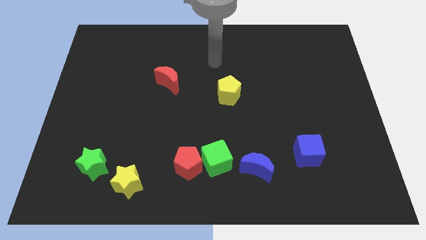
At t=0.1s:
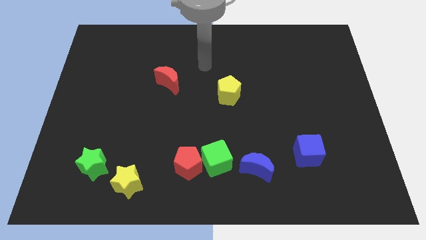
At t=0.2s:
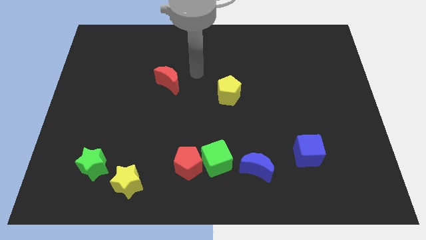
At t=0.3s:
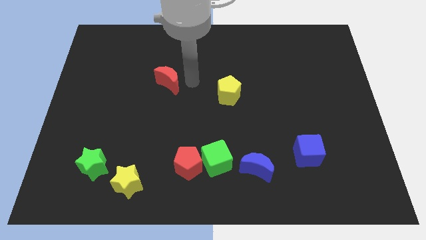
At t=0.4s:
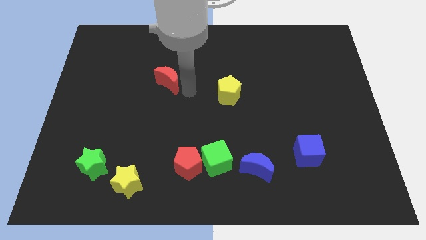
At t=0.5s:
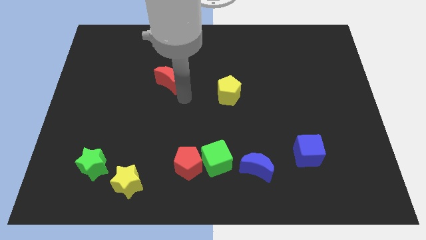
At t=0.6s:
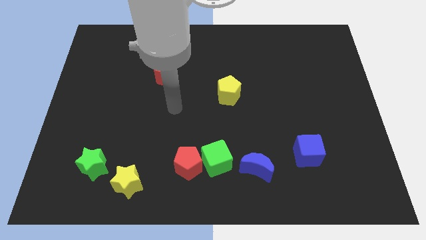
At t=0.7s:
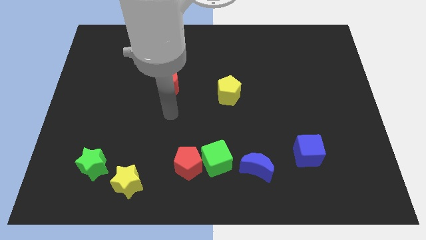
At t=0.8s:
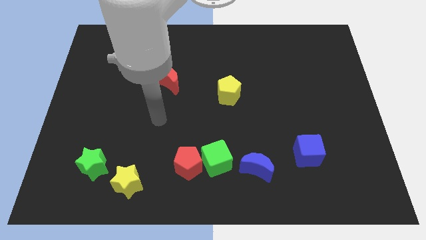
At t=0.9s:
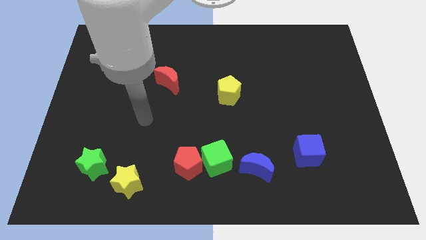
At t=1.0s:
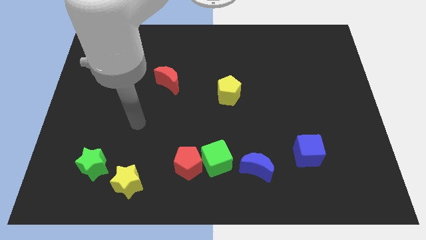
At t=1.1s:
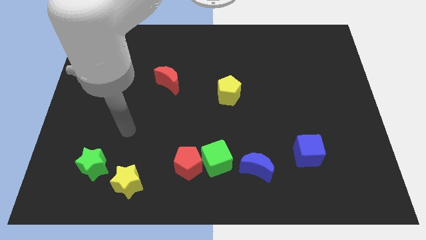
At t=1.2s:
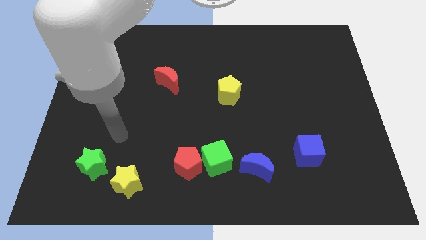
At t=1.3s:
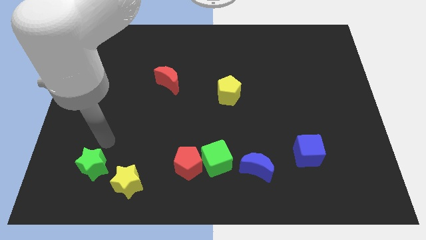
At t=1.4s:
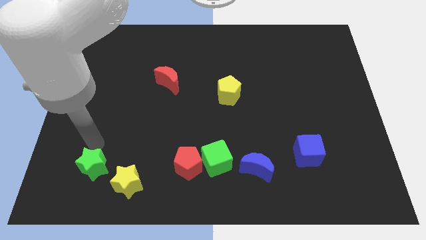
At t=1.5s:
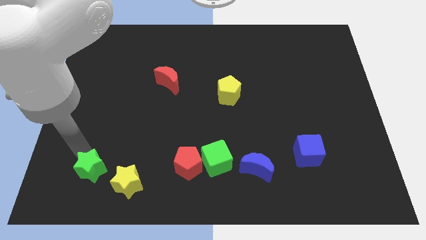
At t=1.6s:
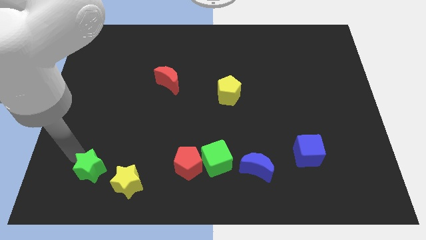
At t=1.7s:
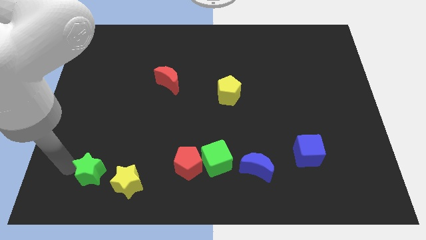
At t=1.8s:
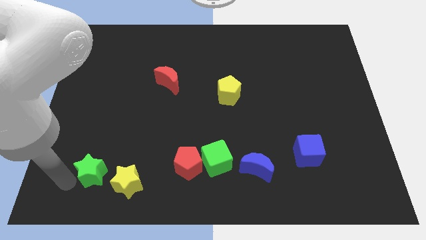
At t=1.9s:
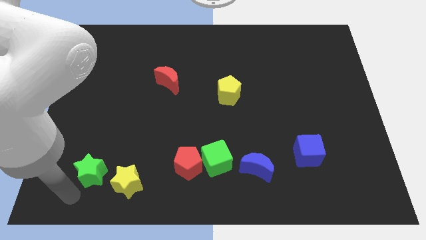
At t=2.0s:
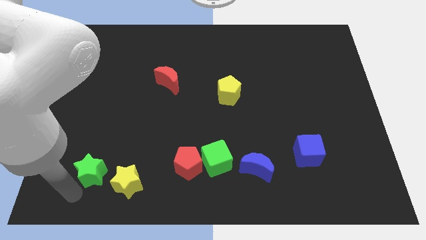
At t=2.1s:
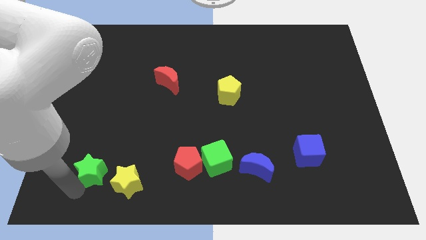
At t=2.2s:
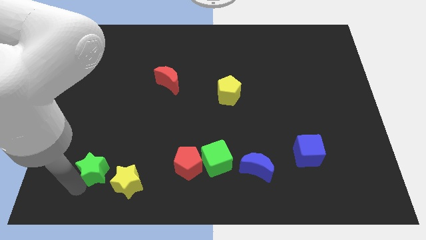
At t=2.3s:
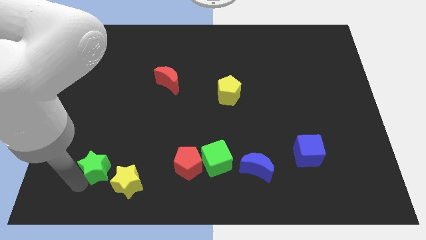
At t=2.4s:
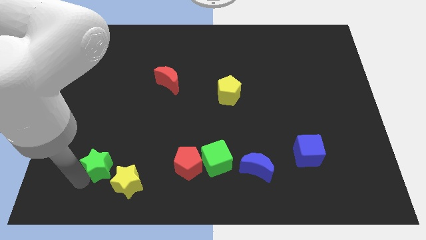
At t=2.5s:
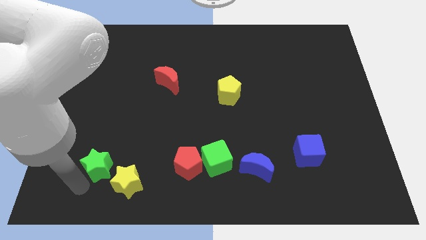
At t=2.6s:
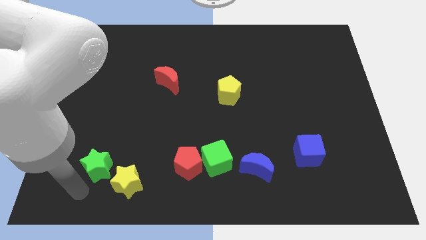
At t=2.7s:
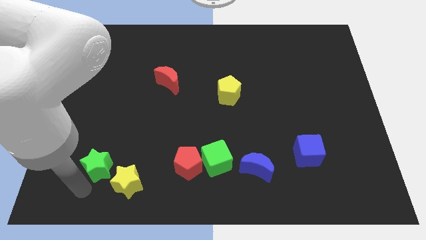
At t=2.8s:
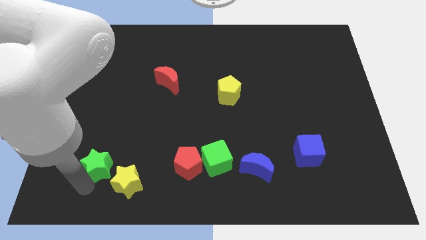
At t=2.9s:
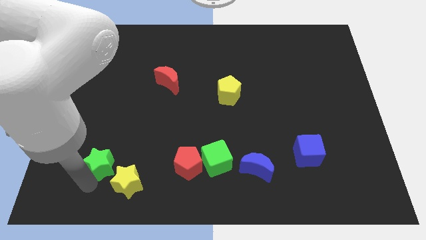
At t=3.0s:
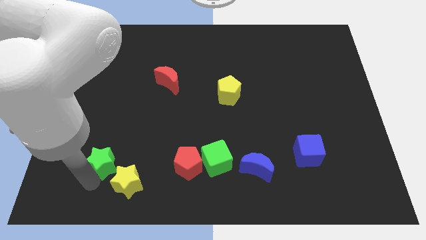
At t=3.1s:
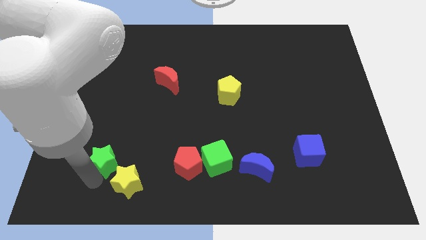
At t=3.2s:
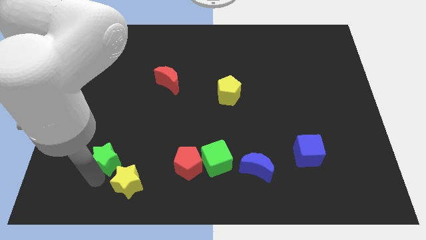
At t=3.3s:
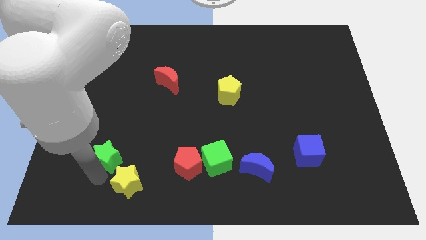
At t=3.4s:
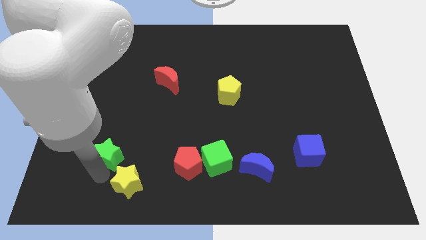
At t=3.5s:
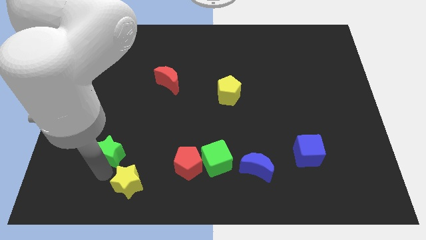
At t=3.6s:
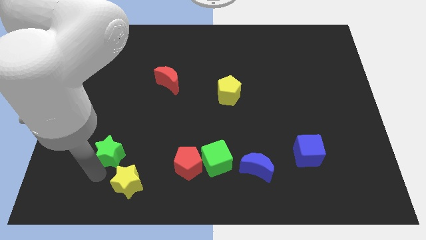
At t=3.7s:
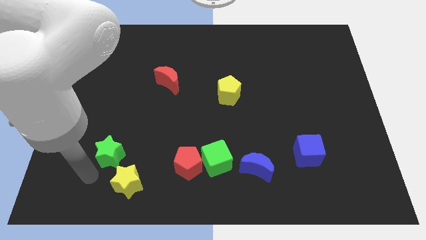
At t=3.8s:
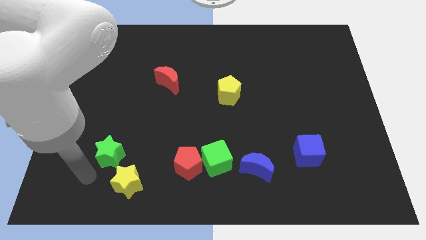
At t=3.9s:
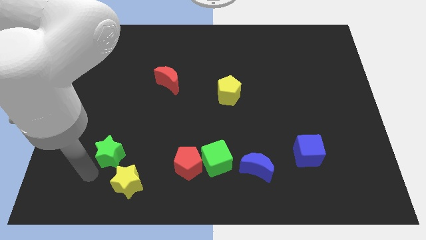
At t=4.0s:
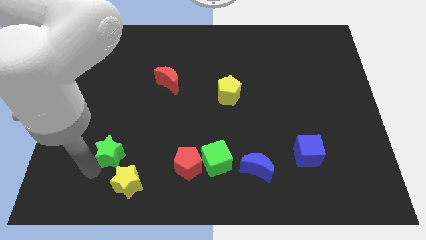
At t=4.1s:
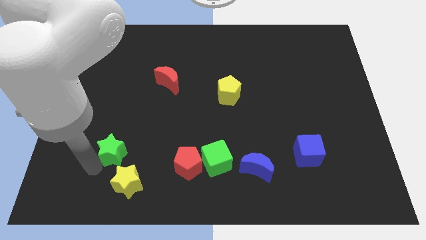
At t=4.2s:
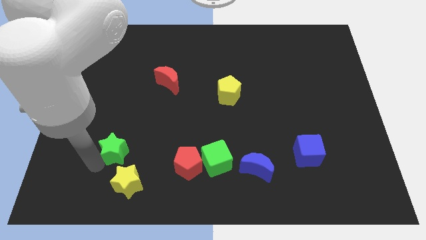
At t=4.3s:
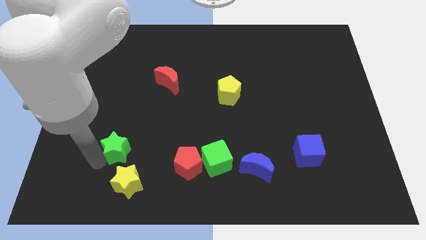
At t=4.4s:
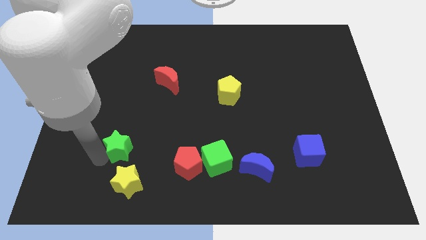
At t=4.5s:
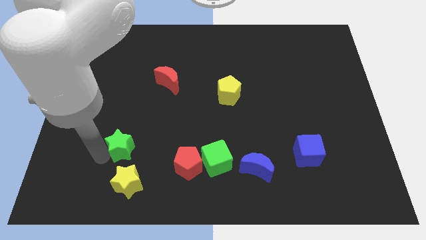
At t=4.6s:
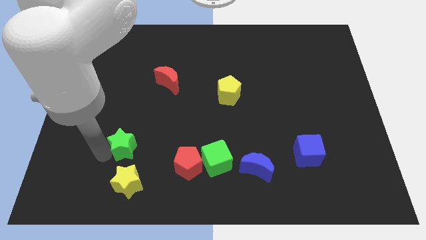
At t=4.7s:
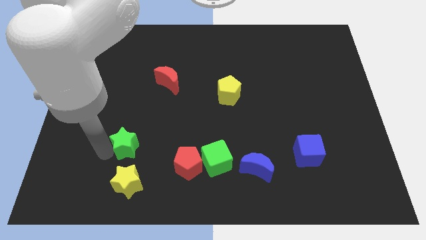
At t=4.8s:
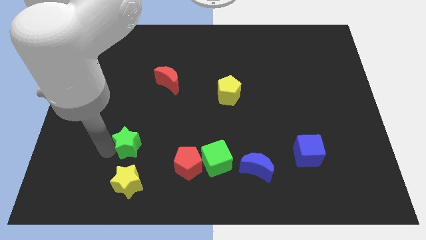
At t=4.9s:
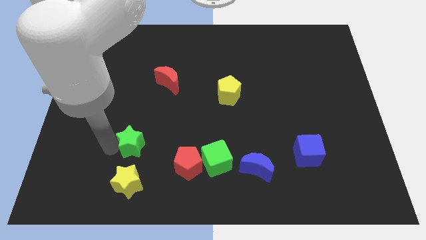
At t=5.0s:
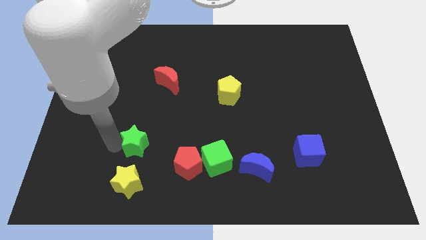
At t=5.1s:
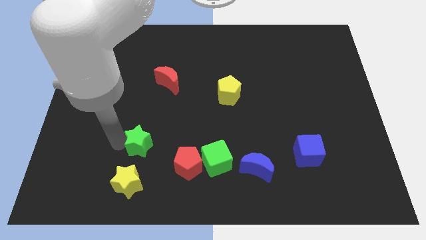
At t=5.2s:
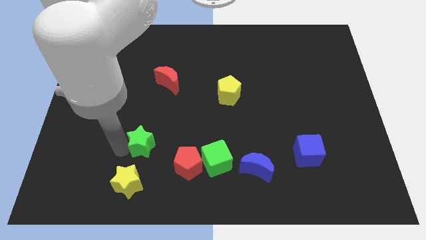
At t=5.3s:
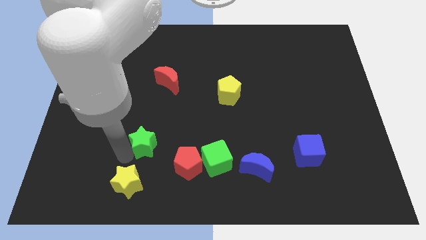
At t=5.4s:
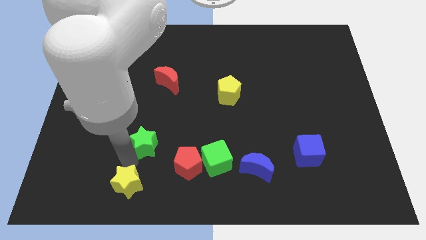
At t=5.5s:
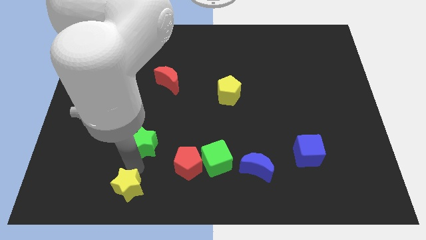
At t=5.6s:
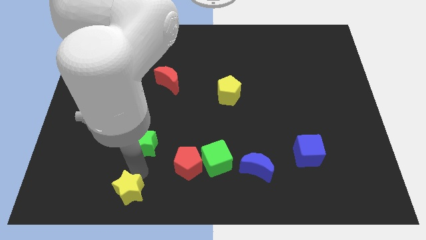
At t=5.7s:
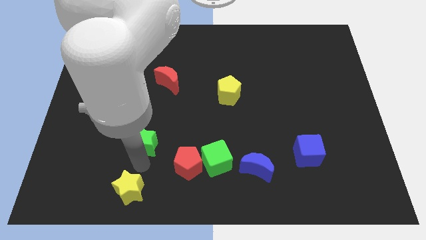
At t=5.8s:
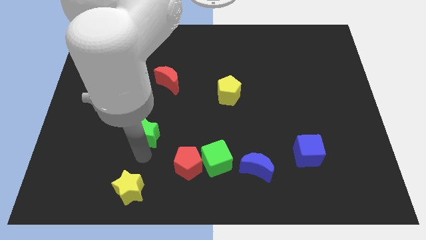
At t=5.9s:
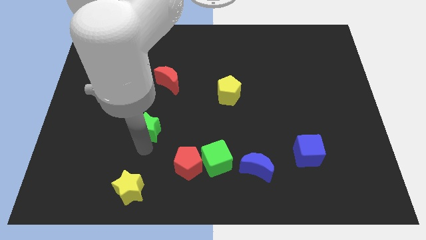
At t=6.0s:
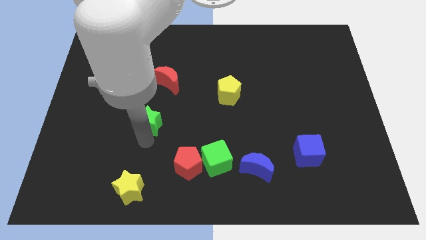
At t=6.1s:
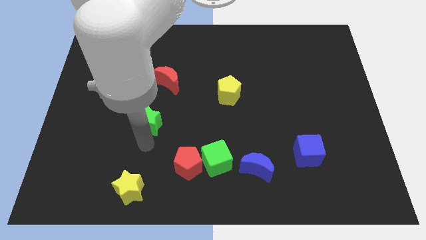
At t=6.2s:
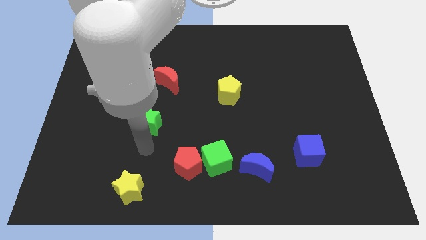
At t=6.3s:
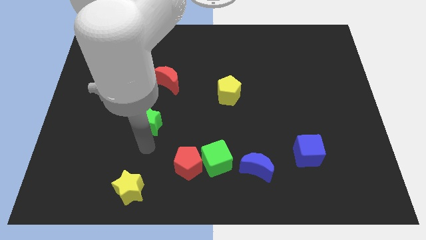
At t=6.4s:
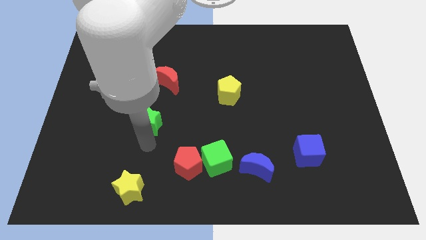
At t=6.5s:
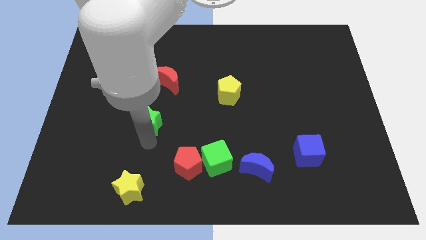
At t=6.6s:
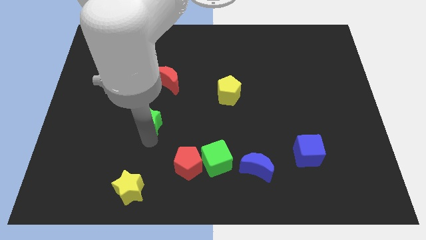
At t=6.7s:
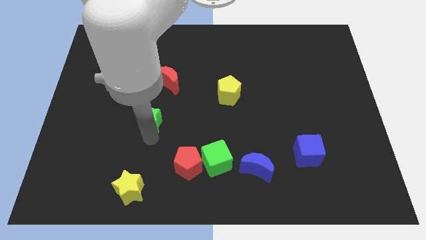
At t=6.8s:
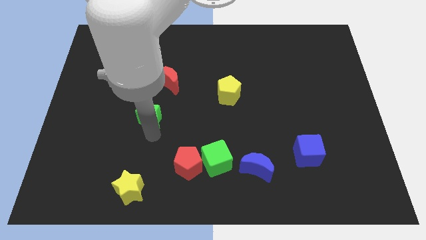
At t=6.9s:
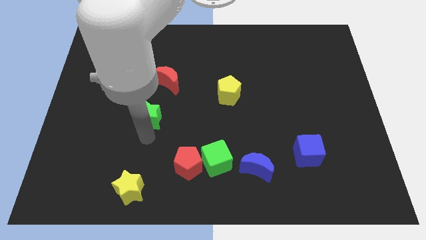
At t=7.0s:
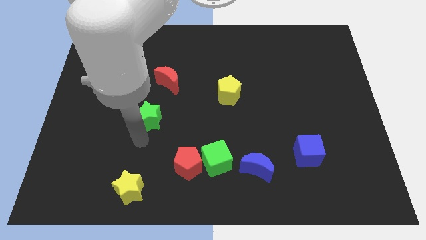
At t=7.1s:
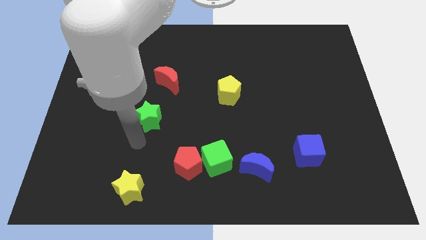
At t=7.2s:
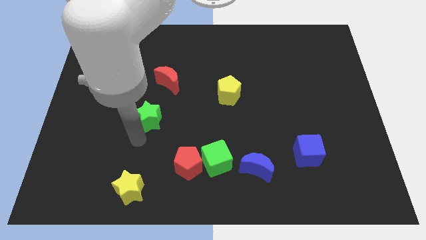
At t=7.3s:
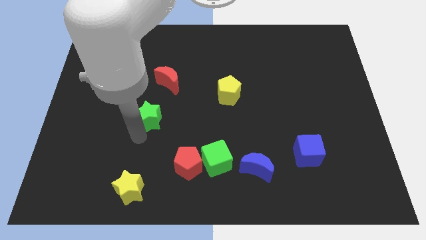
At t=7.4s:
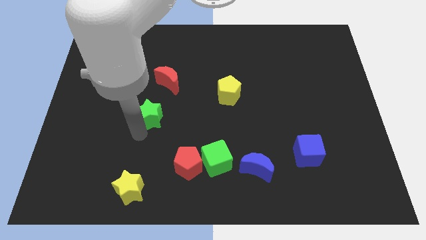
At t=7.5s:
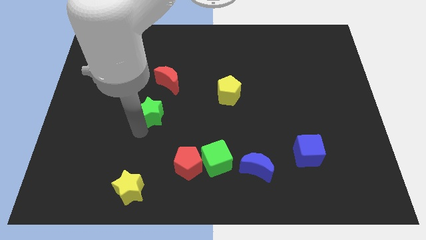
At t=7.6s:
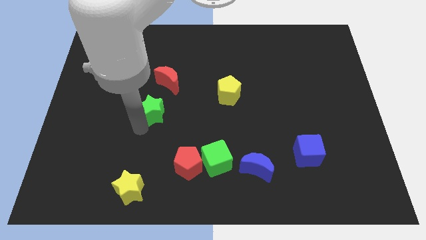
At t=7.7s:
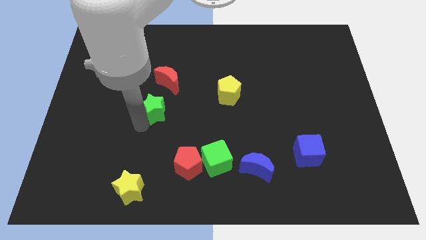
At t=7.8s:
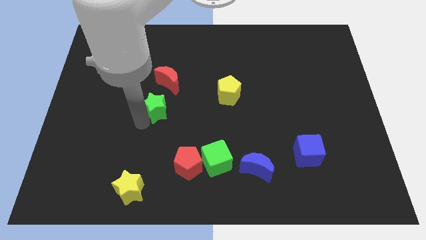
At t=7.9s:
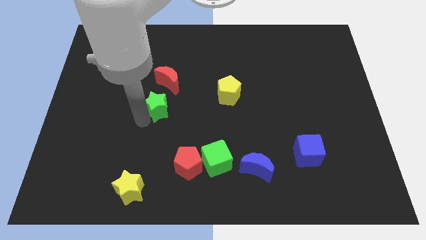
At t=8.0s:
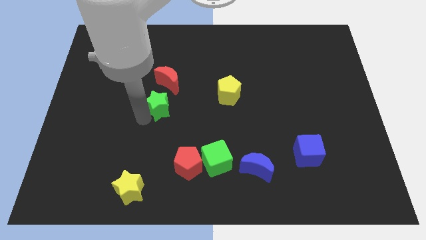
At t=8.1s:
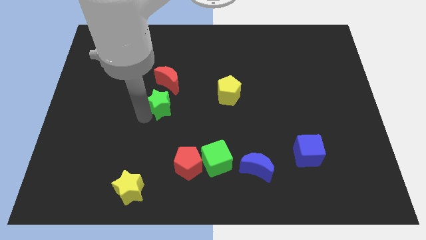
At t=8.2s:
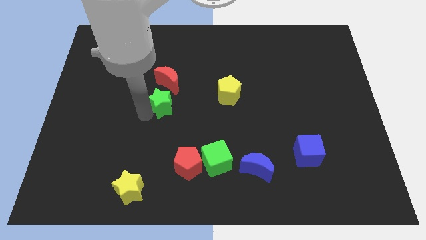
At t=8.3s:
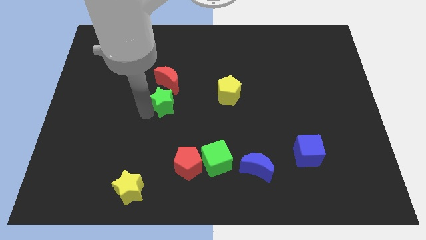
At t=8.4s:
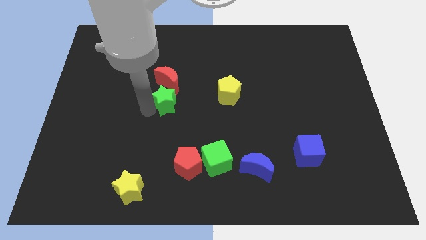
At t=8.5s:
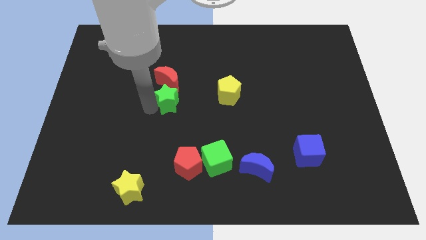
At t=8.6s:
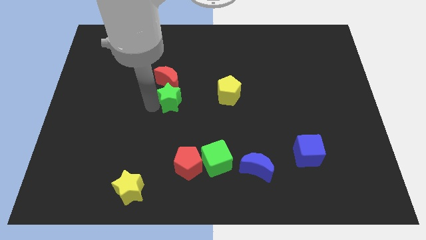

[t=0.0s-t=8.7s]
push the green star next to the red moon
